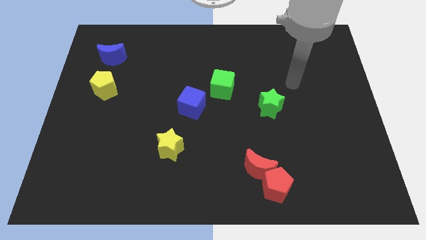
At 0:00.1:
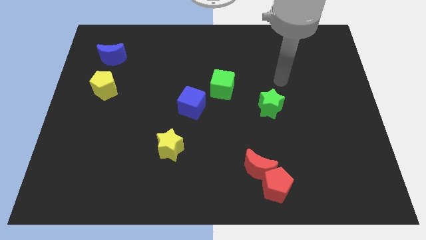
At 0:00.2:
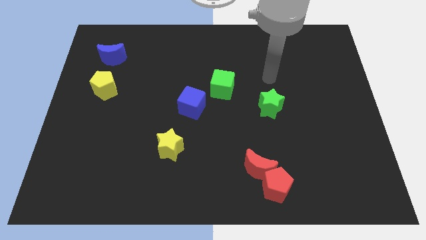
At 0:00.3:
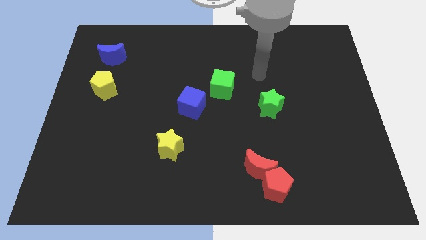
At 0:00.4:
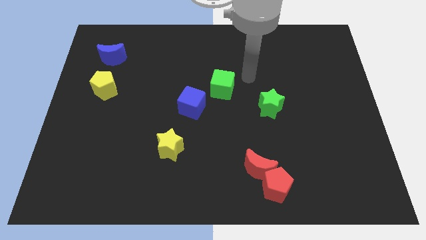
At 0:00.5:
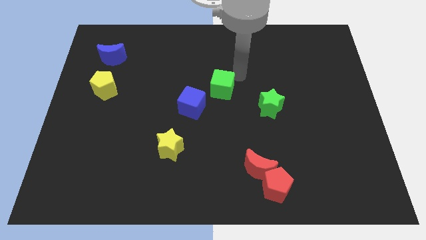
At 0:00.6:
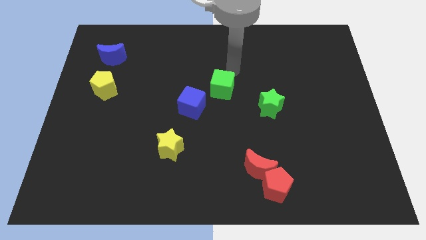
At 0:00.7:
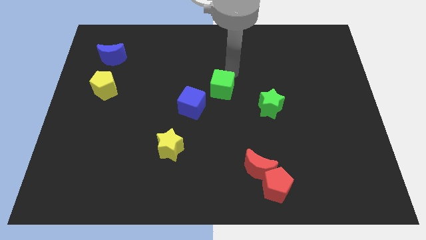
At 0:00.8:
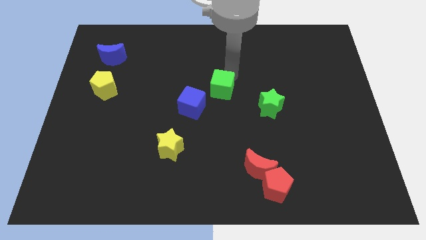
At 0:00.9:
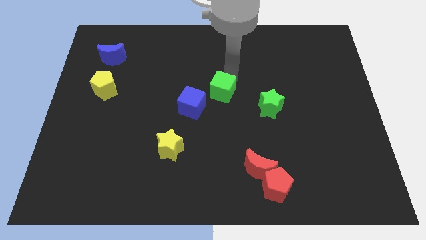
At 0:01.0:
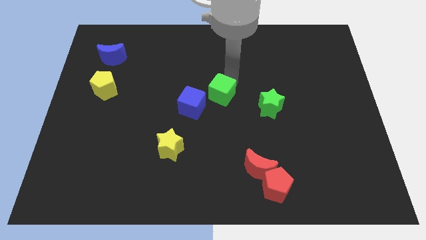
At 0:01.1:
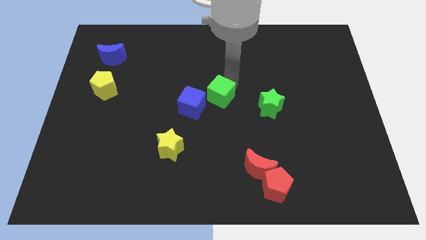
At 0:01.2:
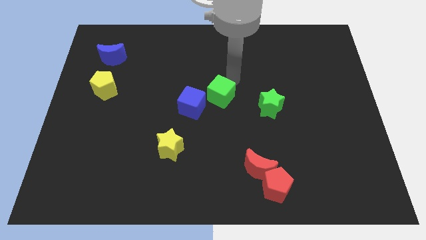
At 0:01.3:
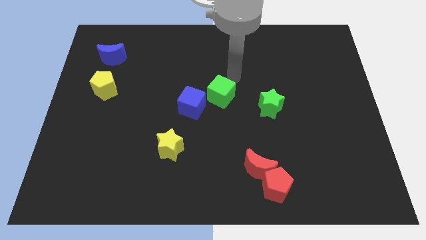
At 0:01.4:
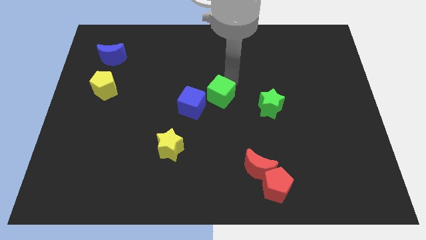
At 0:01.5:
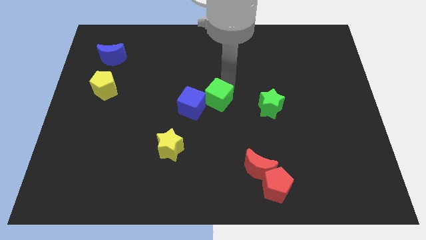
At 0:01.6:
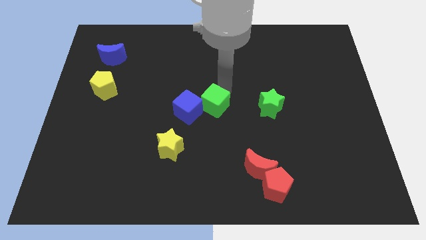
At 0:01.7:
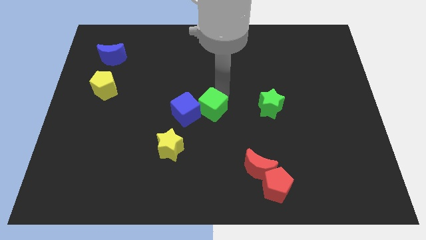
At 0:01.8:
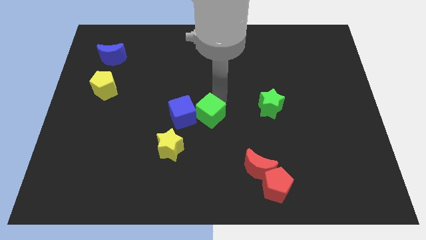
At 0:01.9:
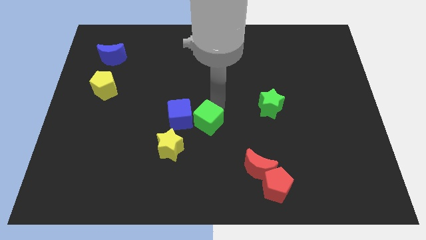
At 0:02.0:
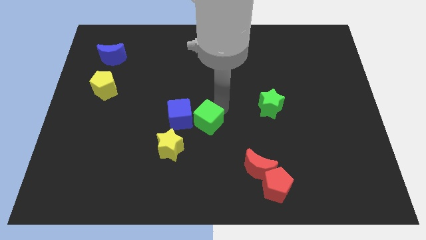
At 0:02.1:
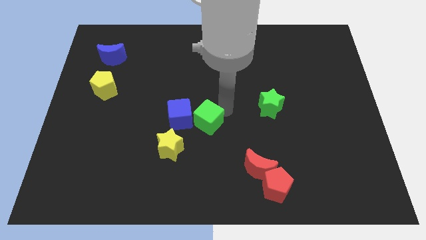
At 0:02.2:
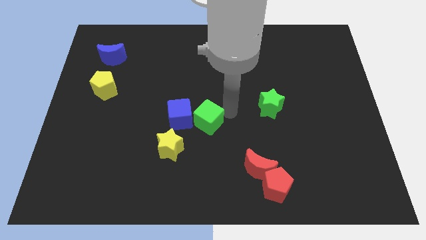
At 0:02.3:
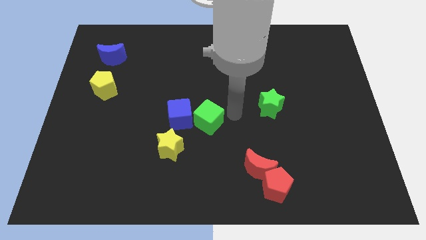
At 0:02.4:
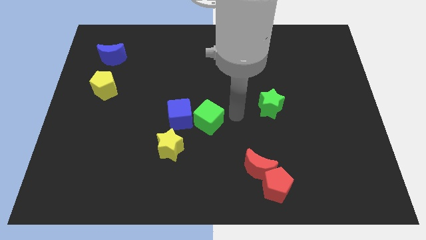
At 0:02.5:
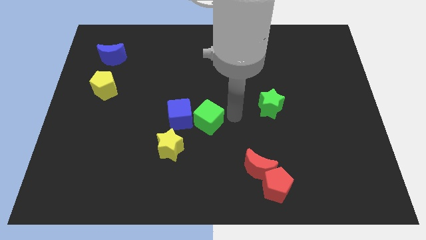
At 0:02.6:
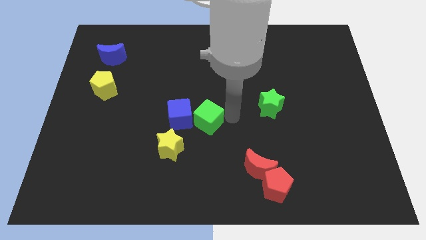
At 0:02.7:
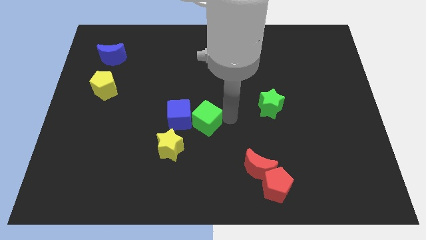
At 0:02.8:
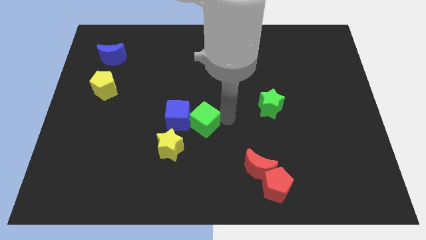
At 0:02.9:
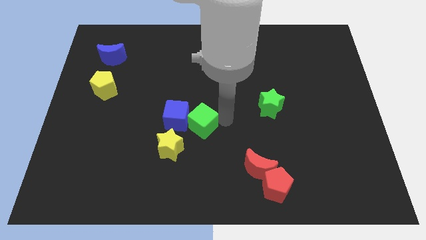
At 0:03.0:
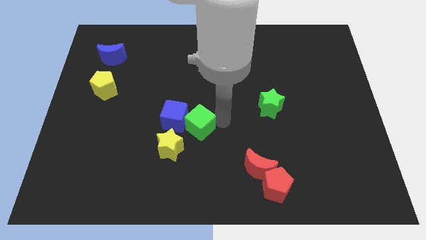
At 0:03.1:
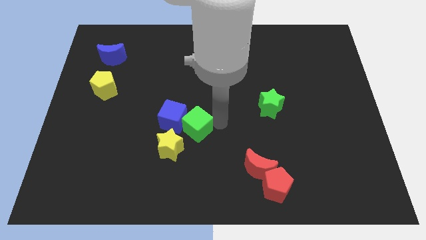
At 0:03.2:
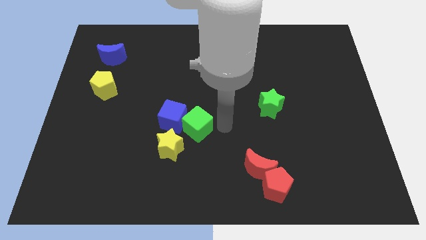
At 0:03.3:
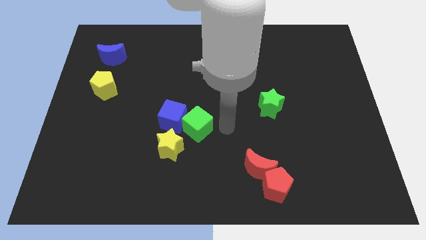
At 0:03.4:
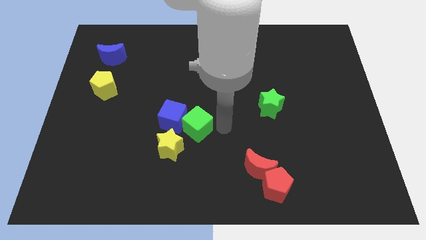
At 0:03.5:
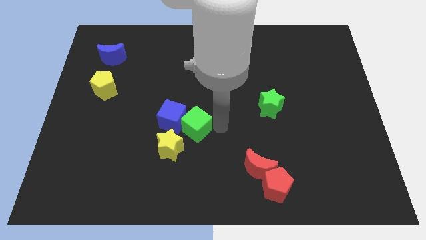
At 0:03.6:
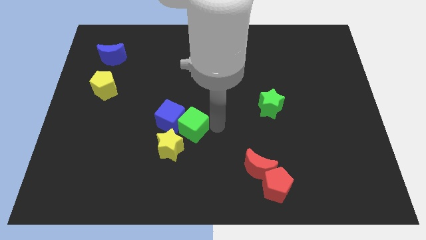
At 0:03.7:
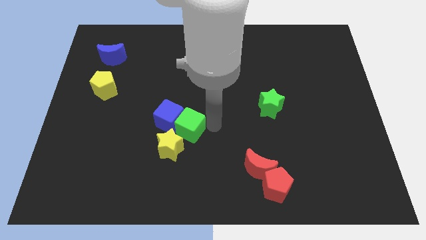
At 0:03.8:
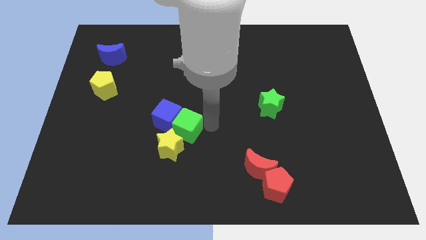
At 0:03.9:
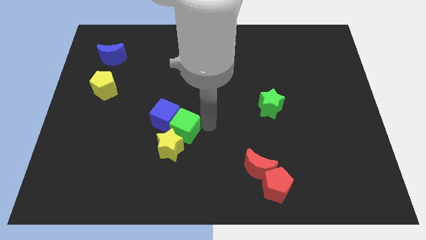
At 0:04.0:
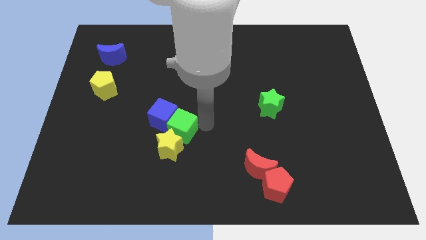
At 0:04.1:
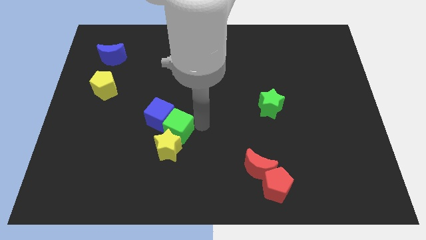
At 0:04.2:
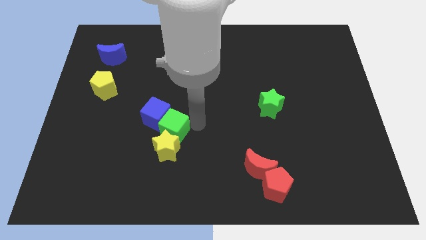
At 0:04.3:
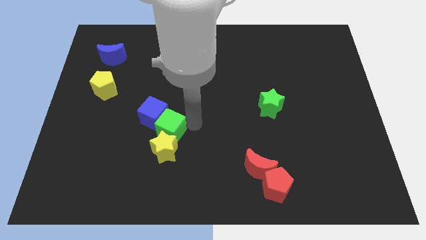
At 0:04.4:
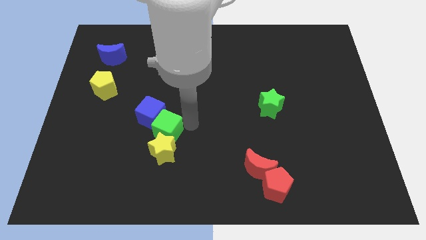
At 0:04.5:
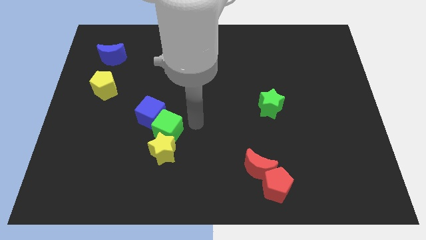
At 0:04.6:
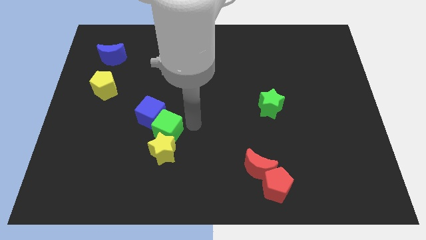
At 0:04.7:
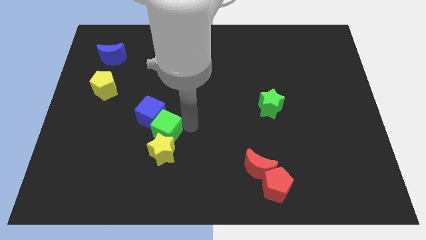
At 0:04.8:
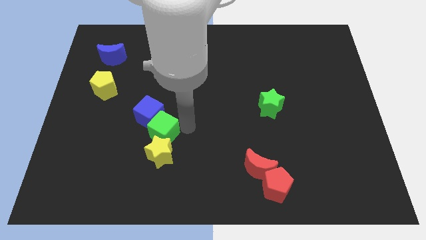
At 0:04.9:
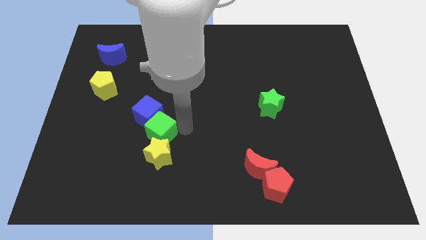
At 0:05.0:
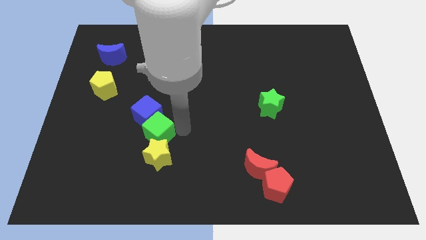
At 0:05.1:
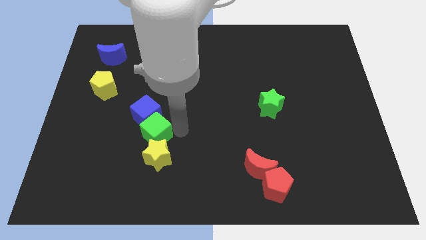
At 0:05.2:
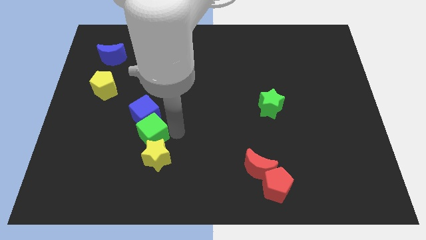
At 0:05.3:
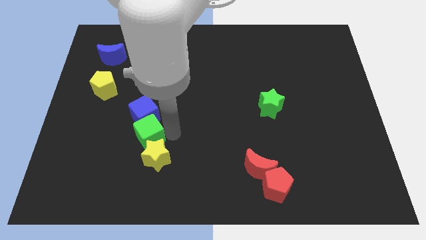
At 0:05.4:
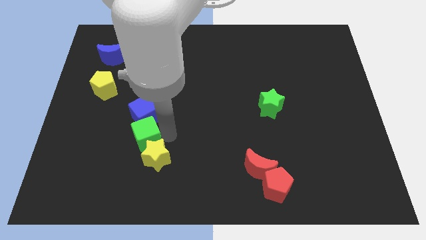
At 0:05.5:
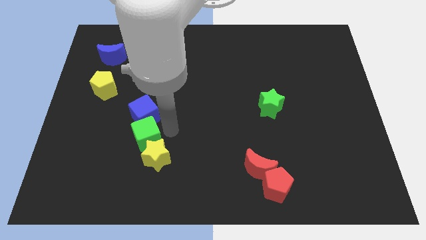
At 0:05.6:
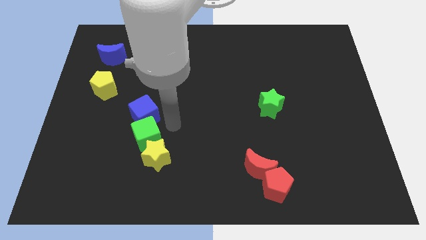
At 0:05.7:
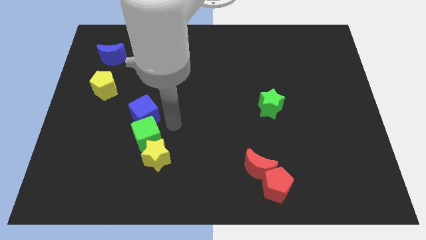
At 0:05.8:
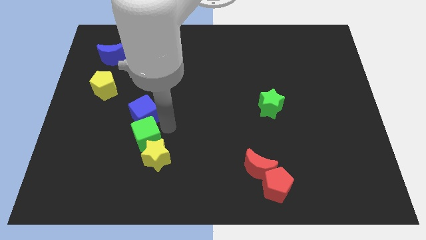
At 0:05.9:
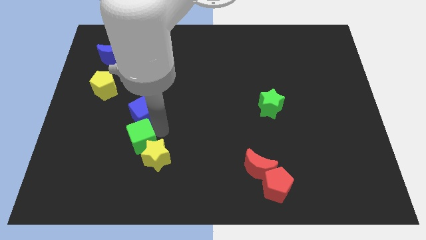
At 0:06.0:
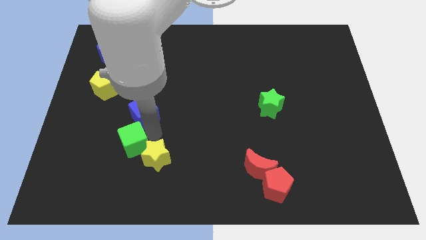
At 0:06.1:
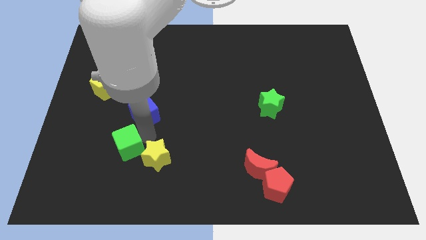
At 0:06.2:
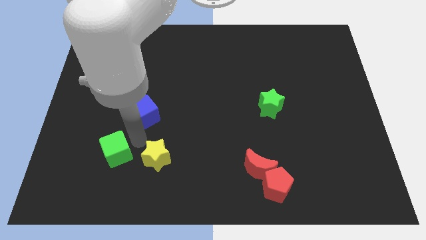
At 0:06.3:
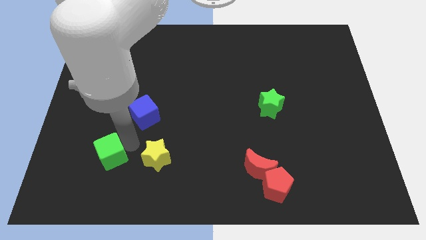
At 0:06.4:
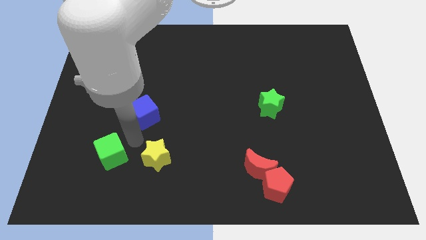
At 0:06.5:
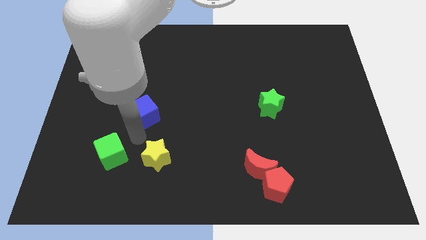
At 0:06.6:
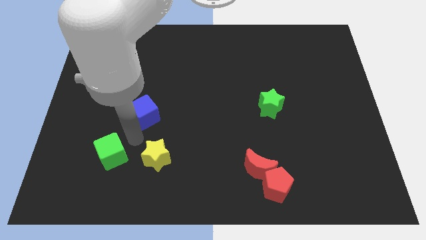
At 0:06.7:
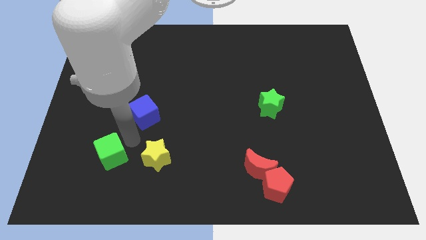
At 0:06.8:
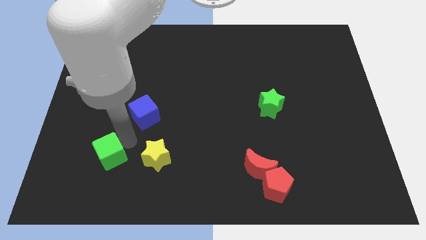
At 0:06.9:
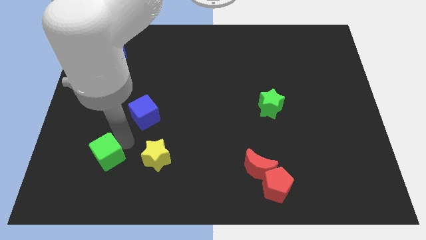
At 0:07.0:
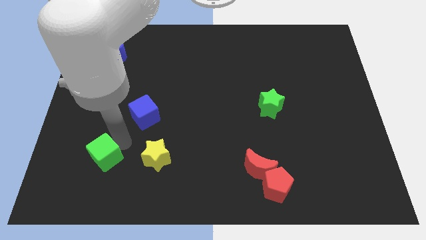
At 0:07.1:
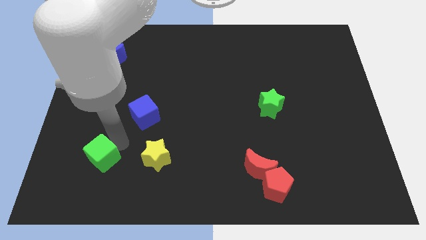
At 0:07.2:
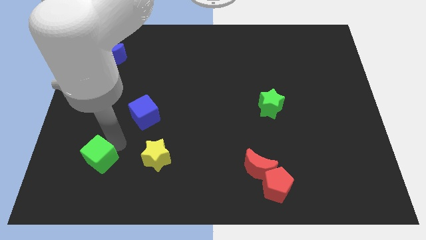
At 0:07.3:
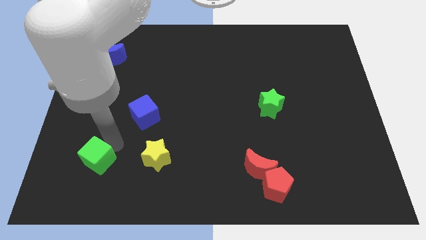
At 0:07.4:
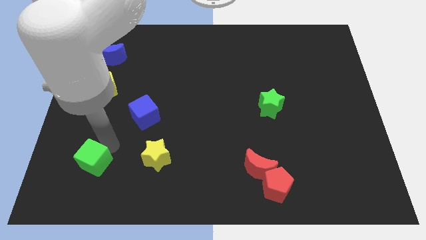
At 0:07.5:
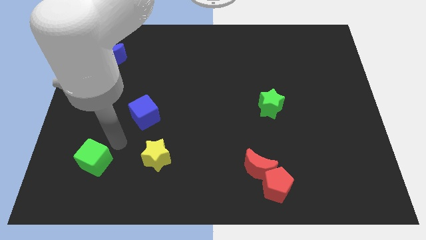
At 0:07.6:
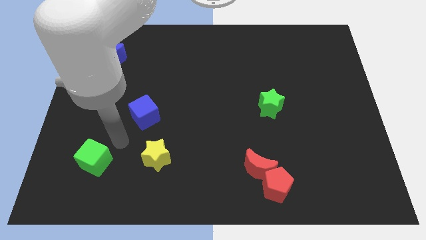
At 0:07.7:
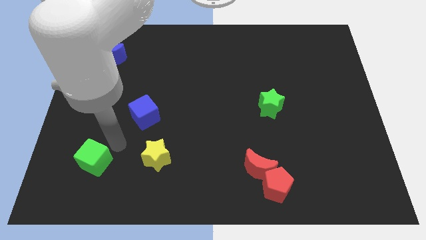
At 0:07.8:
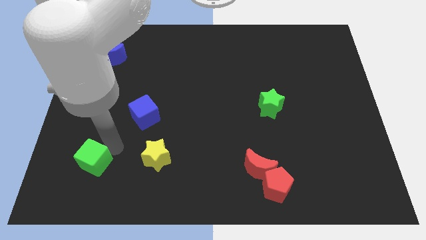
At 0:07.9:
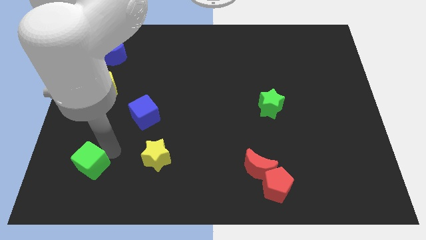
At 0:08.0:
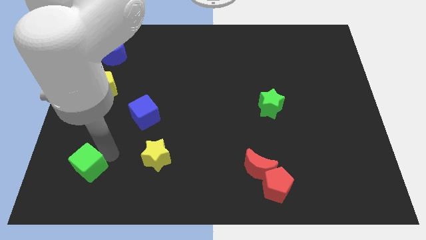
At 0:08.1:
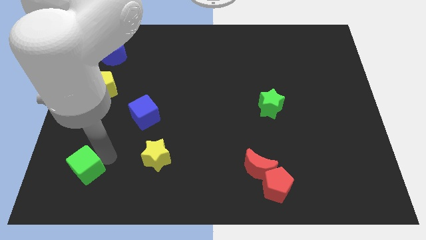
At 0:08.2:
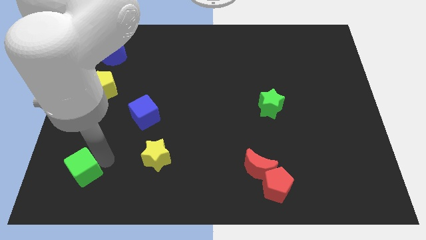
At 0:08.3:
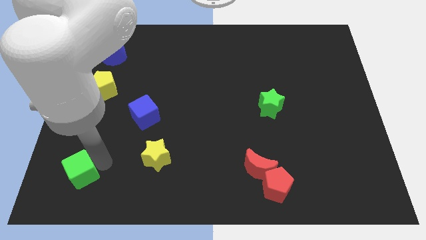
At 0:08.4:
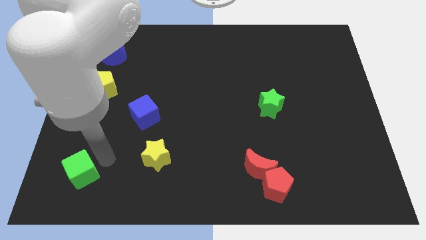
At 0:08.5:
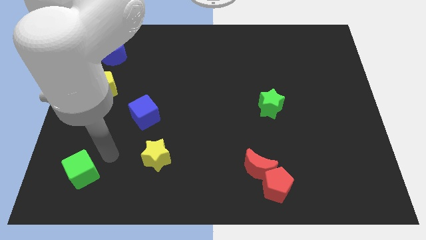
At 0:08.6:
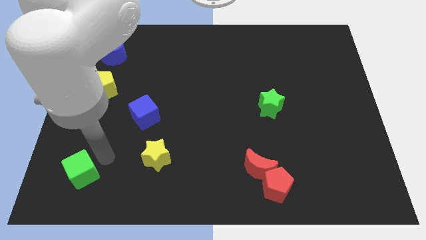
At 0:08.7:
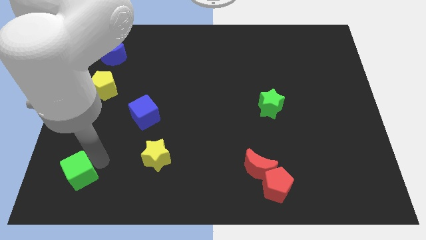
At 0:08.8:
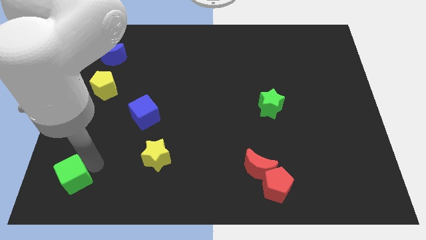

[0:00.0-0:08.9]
push the green cube to the bottom left
